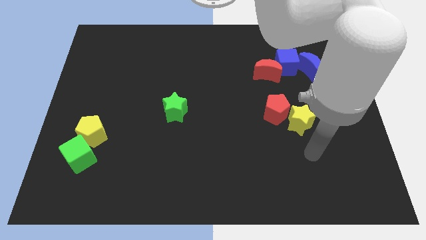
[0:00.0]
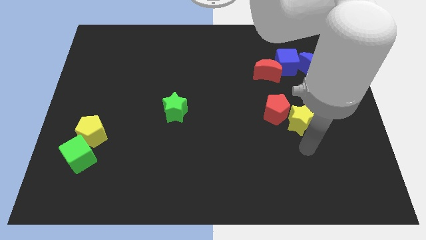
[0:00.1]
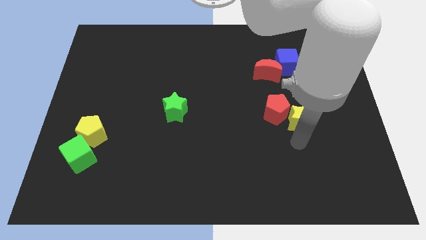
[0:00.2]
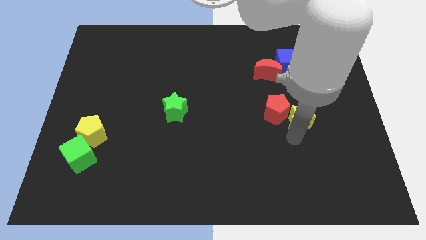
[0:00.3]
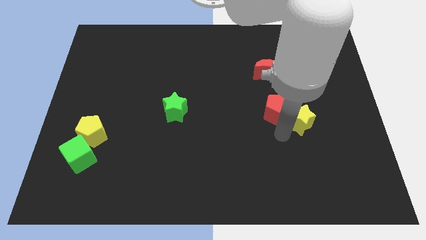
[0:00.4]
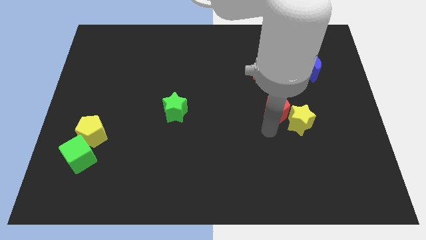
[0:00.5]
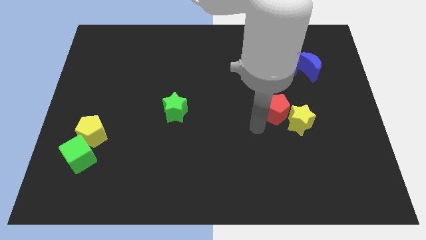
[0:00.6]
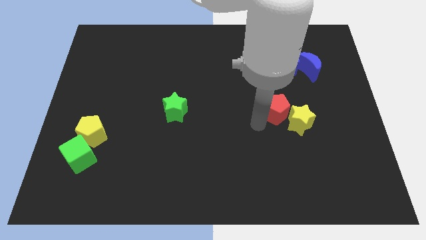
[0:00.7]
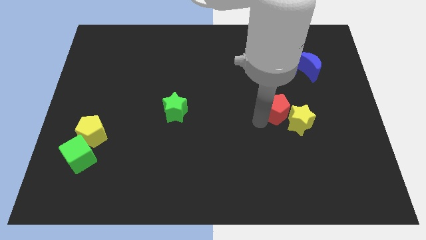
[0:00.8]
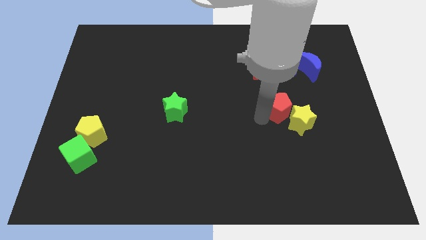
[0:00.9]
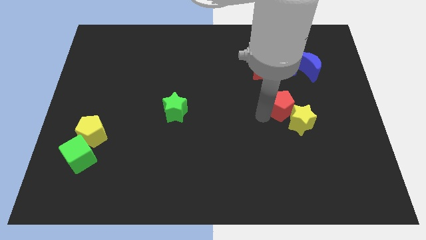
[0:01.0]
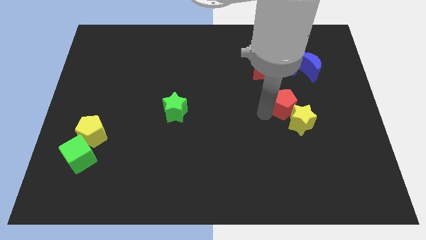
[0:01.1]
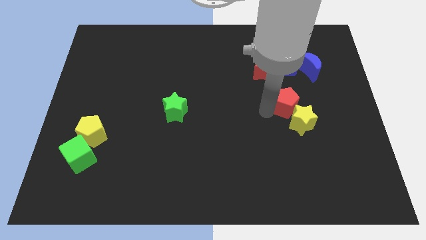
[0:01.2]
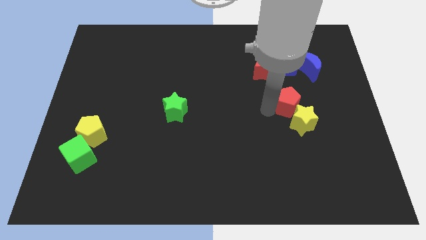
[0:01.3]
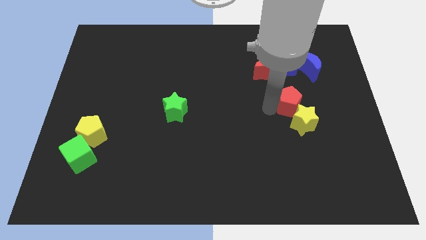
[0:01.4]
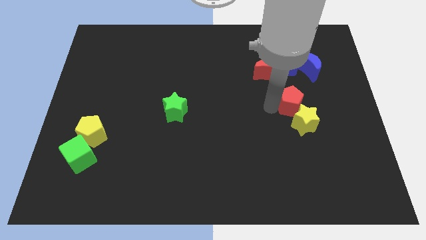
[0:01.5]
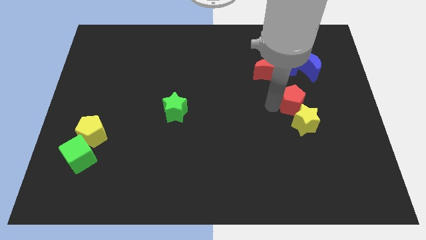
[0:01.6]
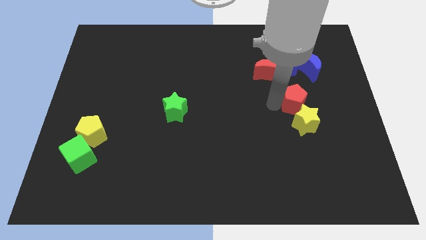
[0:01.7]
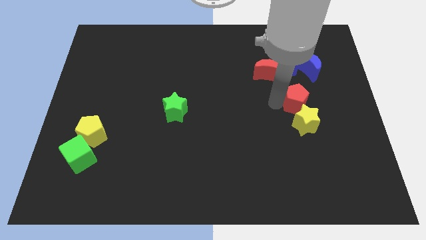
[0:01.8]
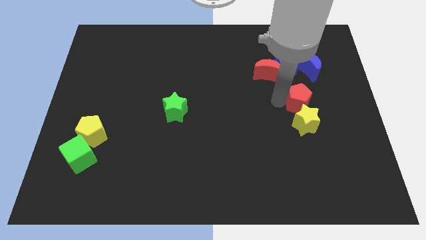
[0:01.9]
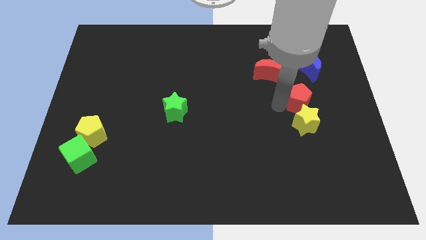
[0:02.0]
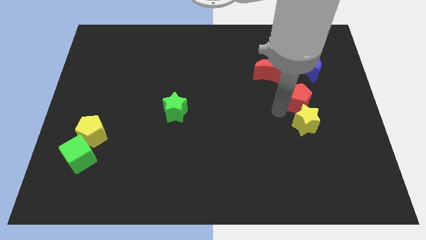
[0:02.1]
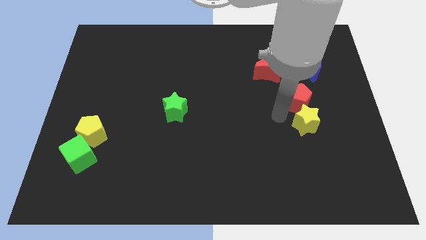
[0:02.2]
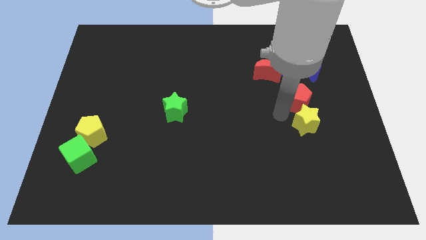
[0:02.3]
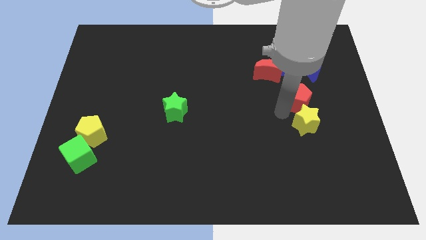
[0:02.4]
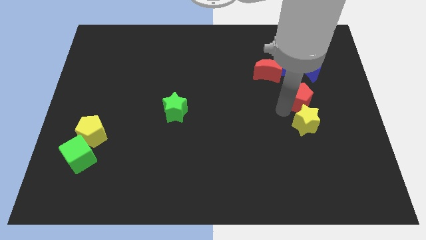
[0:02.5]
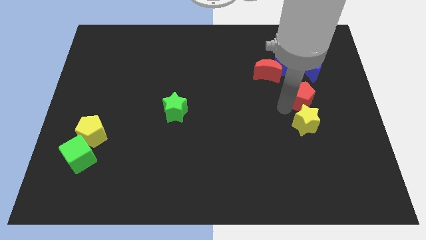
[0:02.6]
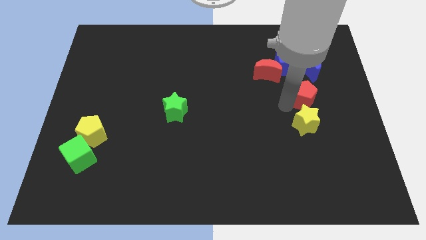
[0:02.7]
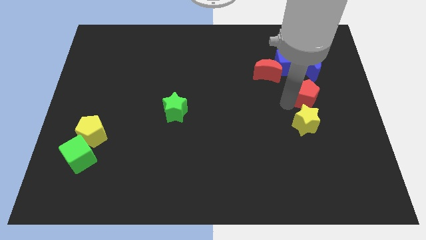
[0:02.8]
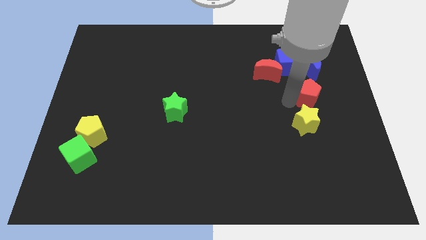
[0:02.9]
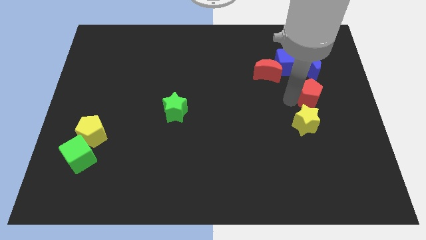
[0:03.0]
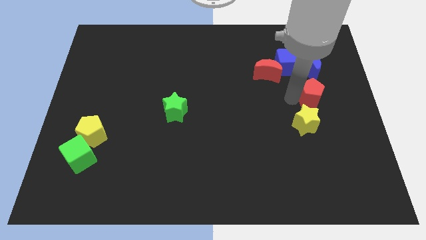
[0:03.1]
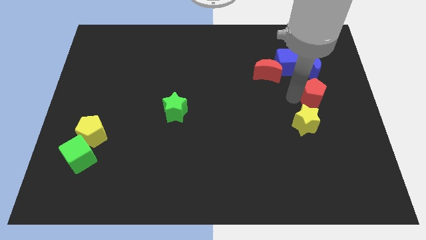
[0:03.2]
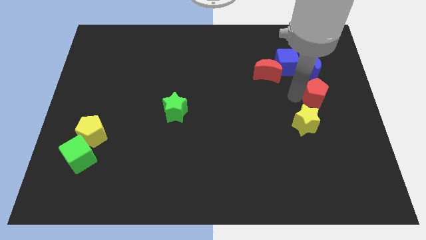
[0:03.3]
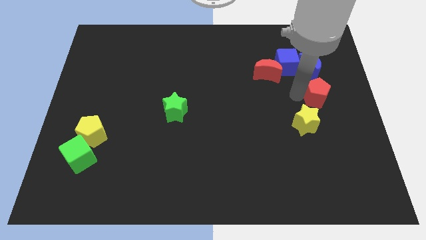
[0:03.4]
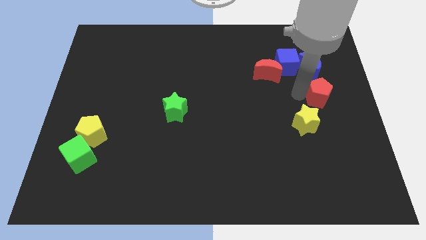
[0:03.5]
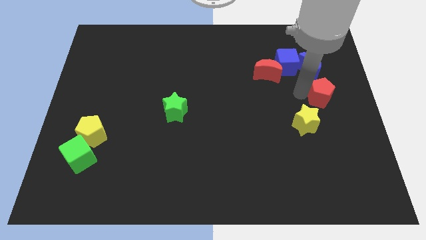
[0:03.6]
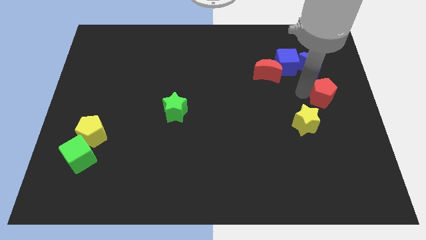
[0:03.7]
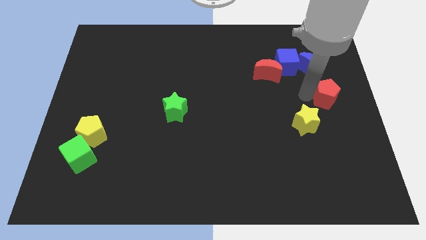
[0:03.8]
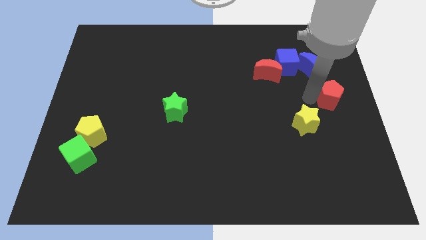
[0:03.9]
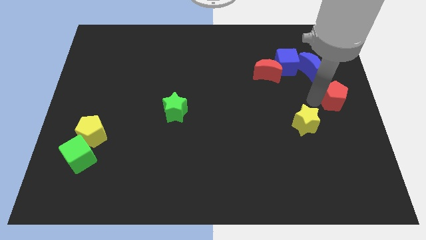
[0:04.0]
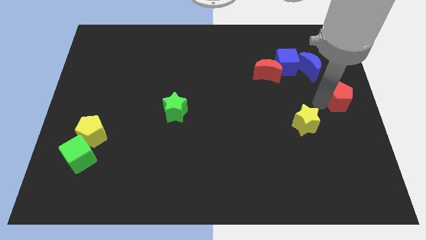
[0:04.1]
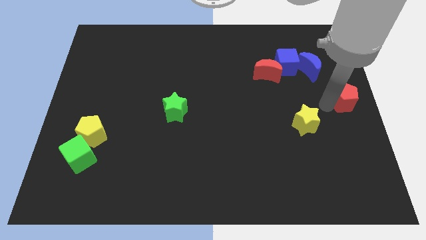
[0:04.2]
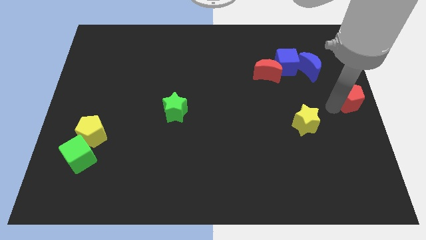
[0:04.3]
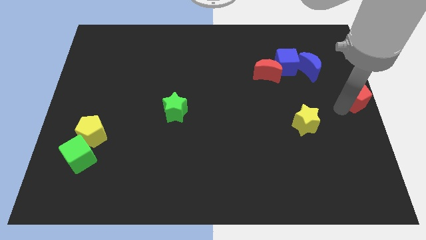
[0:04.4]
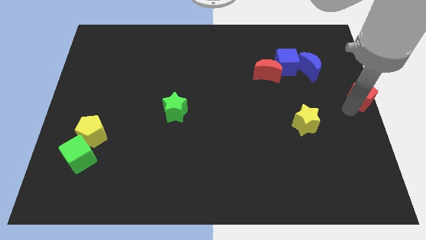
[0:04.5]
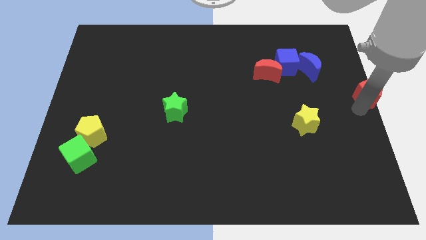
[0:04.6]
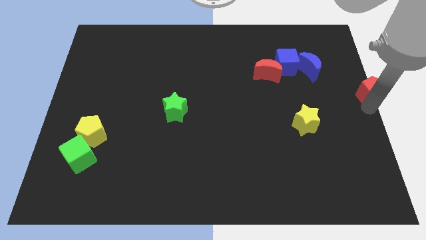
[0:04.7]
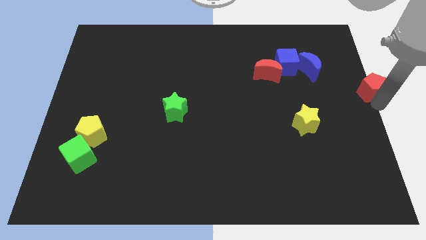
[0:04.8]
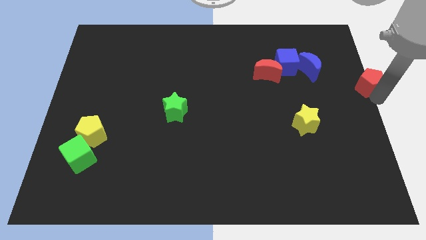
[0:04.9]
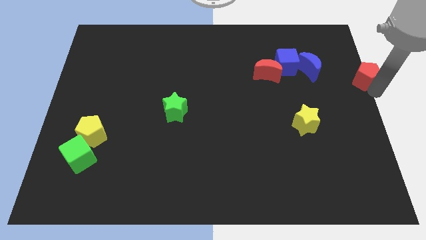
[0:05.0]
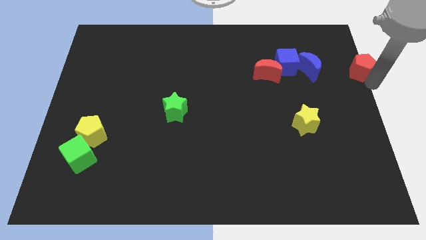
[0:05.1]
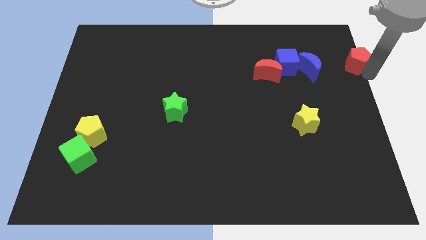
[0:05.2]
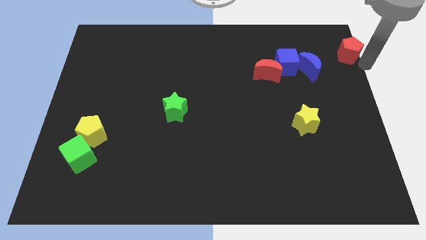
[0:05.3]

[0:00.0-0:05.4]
slide the red pentagon to the top right of the board
